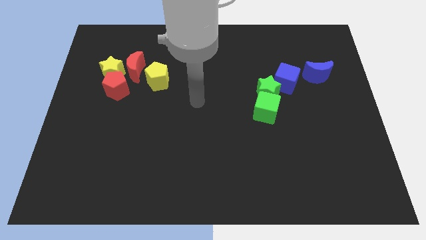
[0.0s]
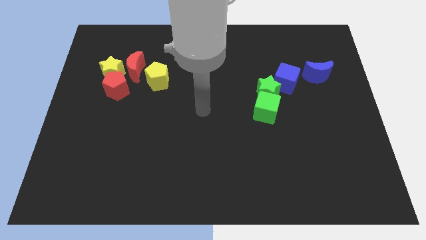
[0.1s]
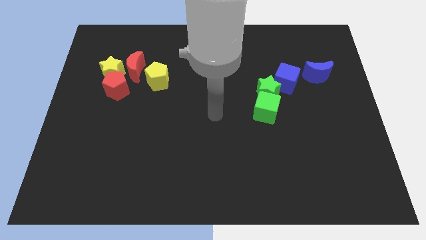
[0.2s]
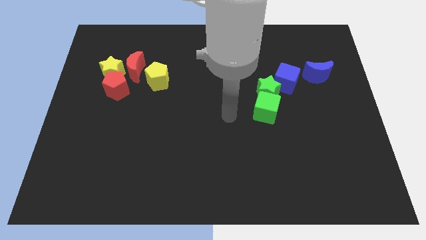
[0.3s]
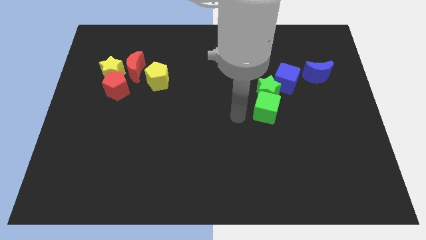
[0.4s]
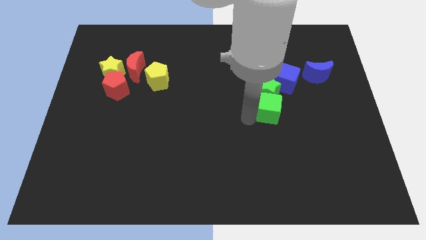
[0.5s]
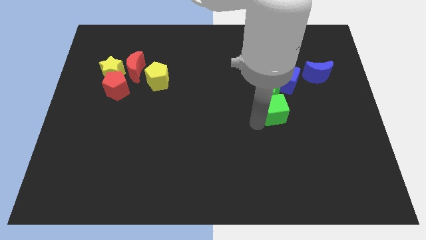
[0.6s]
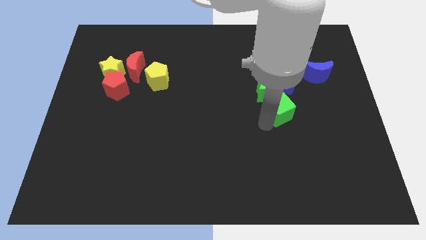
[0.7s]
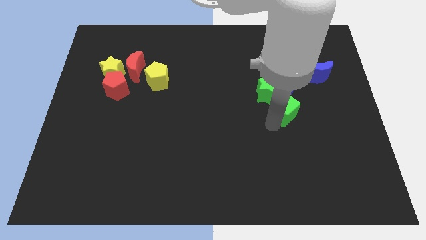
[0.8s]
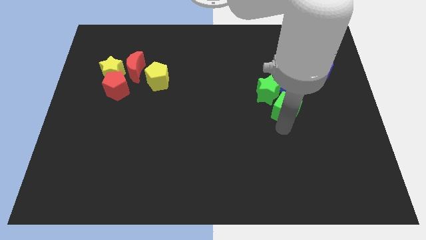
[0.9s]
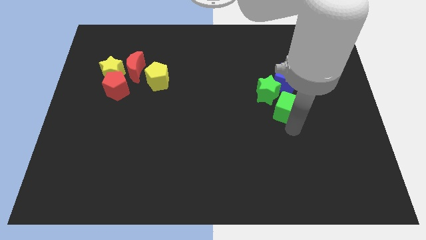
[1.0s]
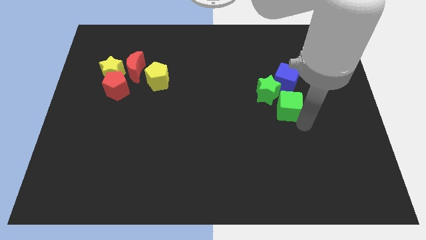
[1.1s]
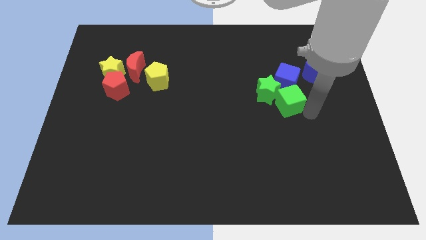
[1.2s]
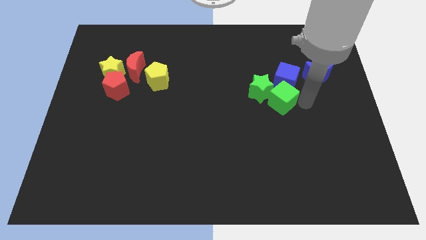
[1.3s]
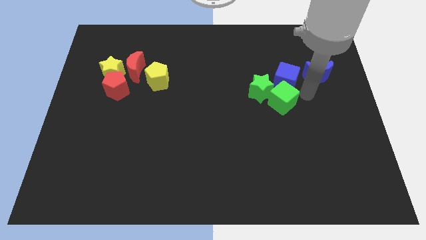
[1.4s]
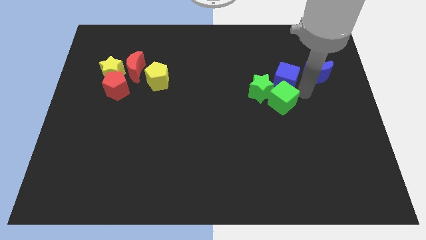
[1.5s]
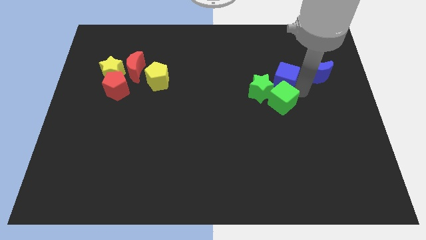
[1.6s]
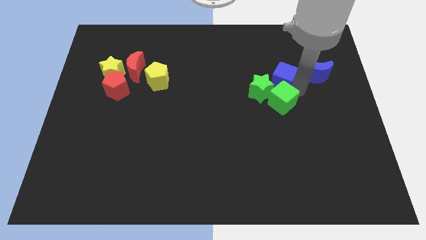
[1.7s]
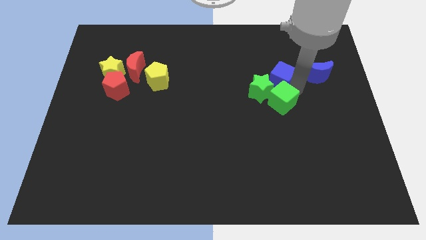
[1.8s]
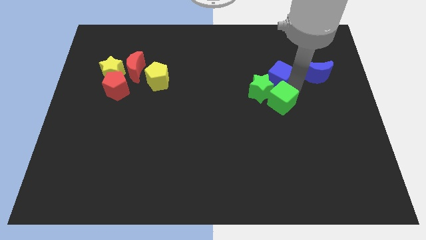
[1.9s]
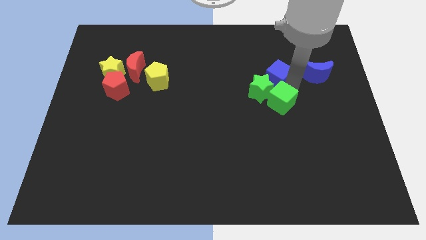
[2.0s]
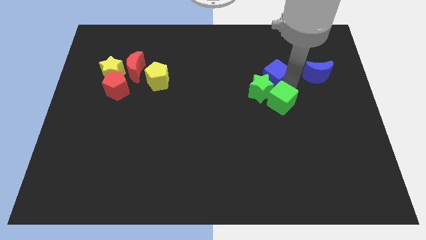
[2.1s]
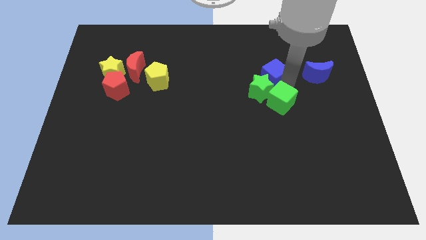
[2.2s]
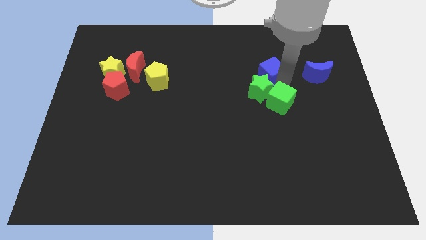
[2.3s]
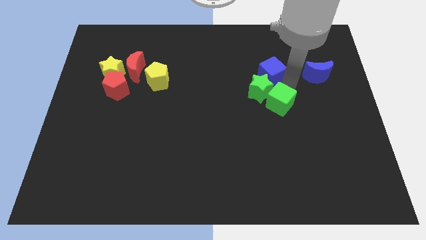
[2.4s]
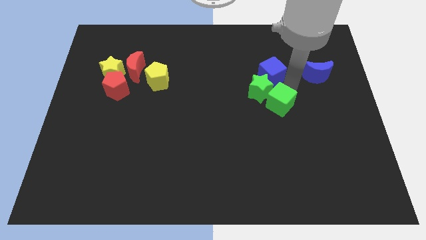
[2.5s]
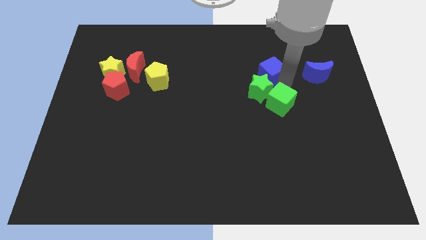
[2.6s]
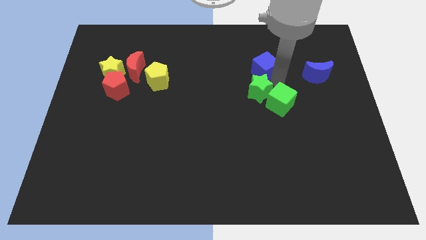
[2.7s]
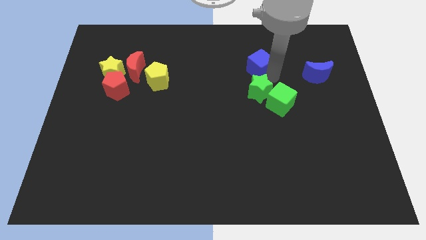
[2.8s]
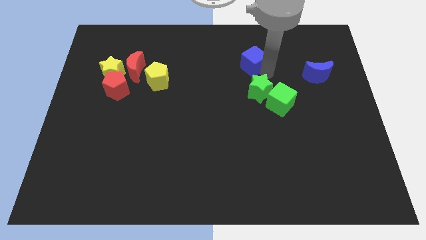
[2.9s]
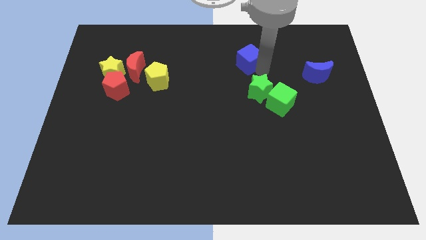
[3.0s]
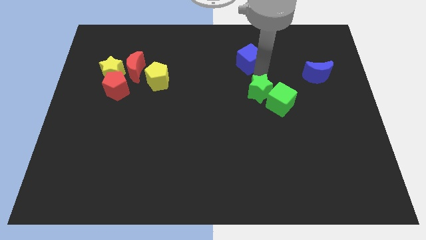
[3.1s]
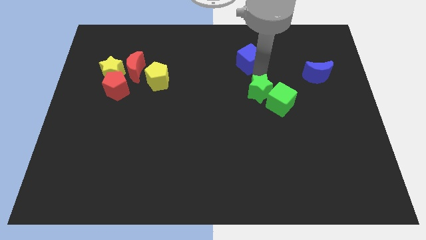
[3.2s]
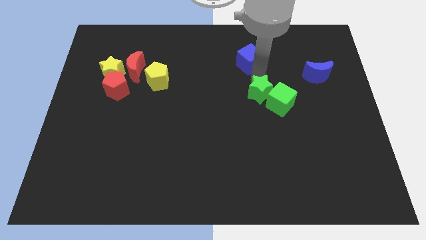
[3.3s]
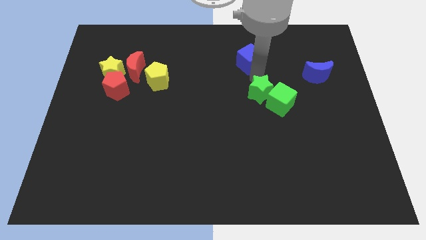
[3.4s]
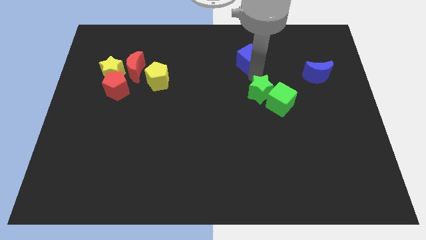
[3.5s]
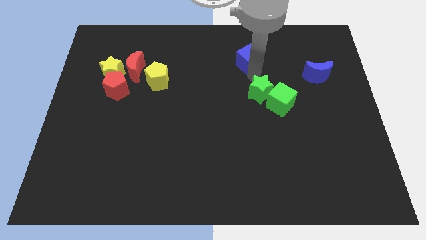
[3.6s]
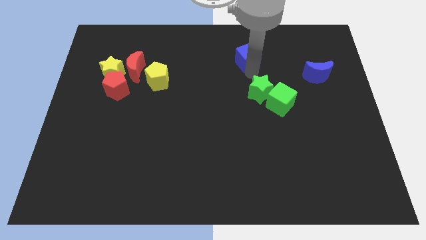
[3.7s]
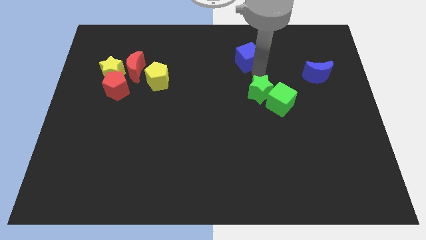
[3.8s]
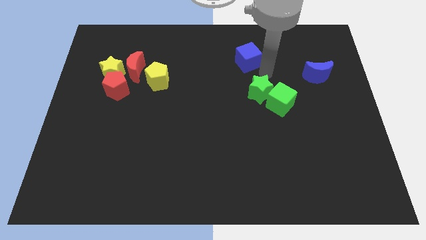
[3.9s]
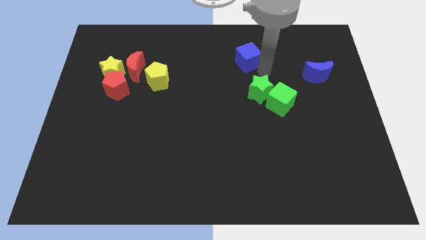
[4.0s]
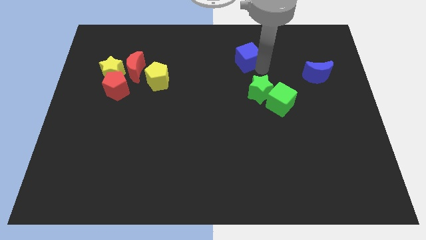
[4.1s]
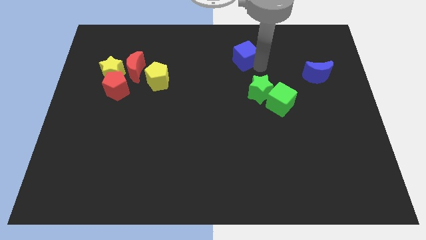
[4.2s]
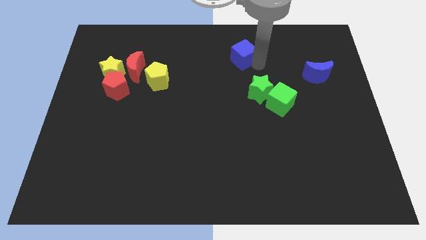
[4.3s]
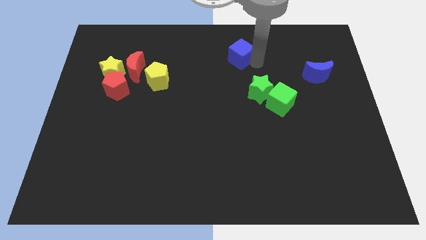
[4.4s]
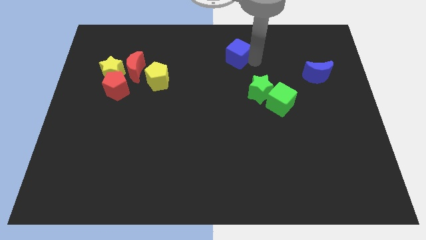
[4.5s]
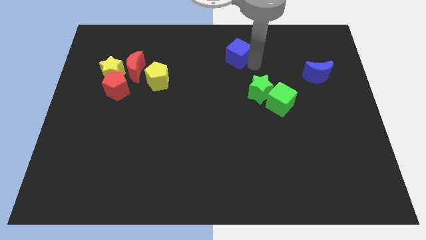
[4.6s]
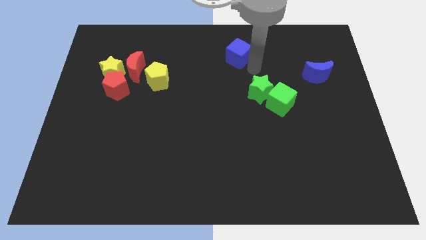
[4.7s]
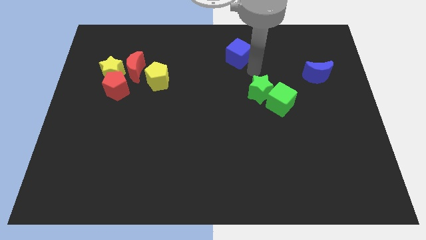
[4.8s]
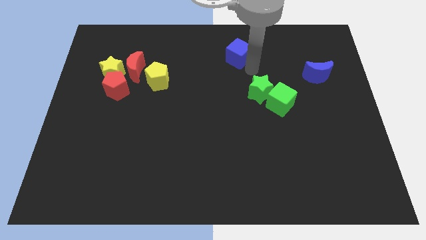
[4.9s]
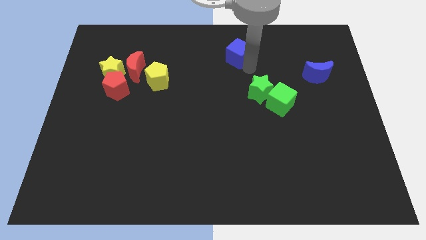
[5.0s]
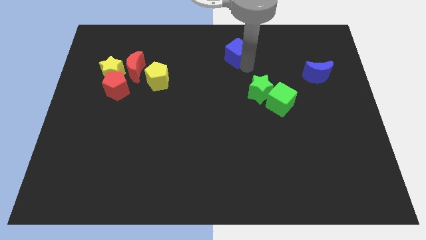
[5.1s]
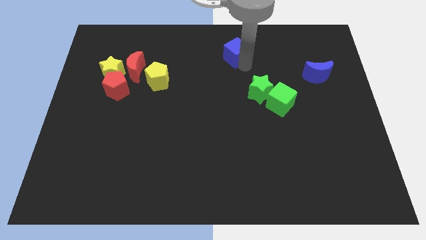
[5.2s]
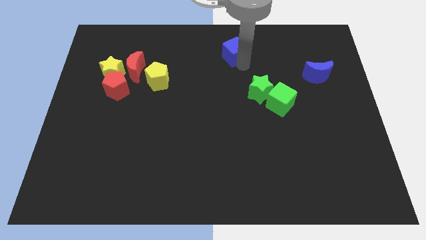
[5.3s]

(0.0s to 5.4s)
move the blue cube to the top side

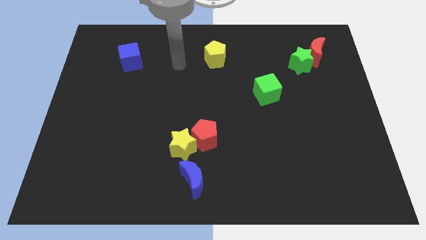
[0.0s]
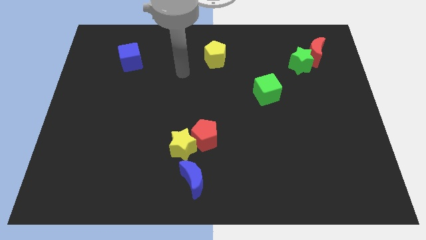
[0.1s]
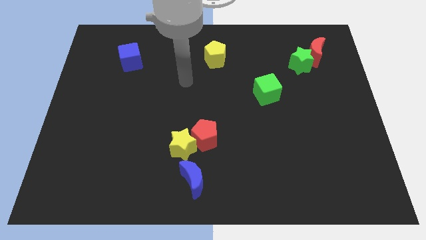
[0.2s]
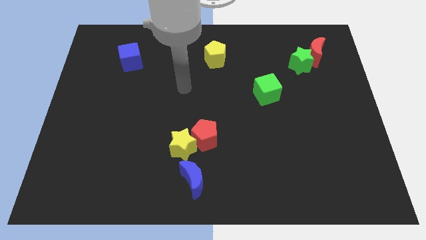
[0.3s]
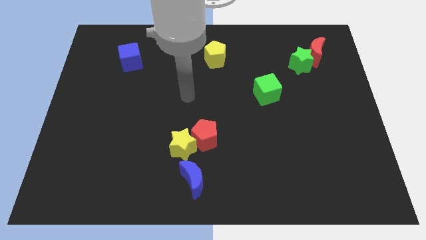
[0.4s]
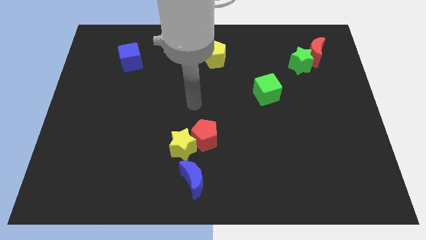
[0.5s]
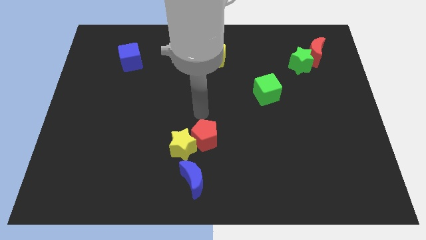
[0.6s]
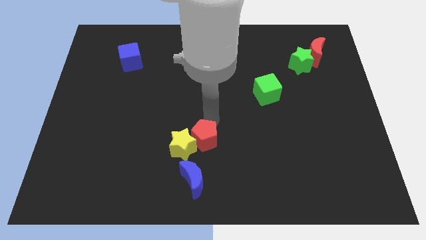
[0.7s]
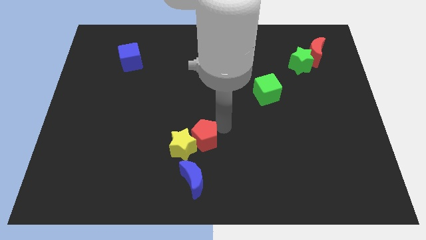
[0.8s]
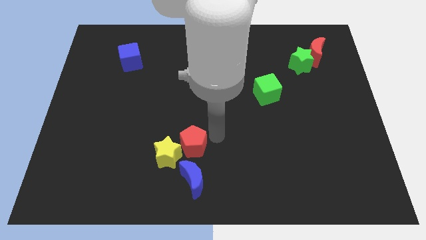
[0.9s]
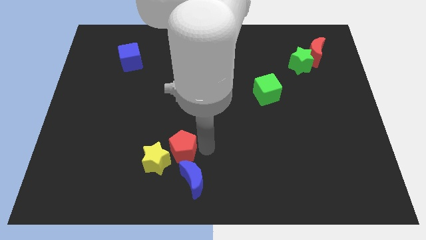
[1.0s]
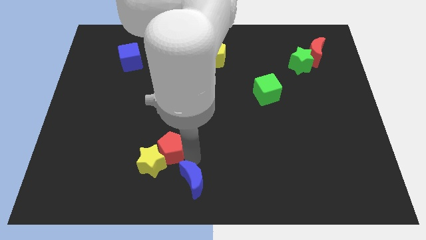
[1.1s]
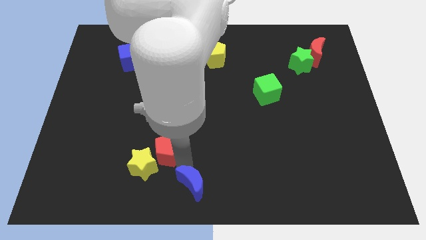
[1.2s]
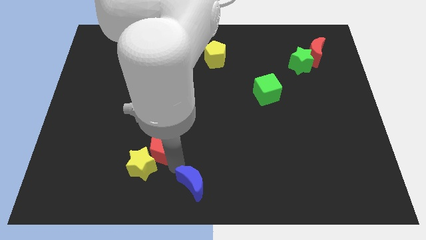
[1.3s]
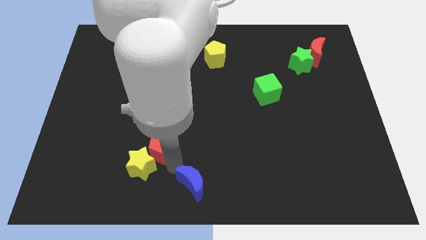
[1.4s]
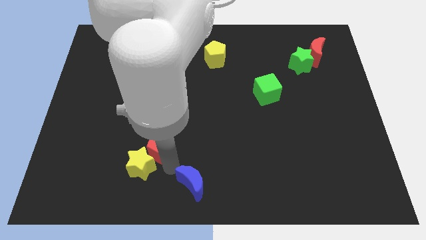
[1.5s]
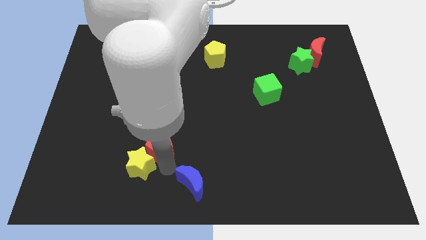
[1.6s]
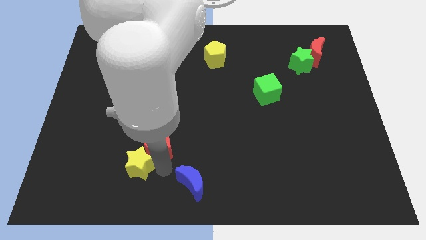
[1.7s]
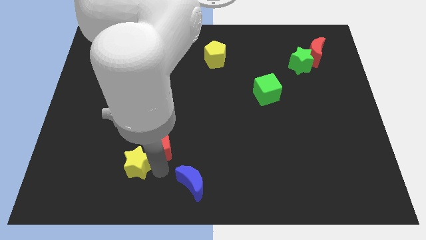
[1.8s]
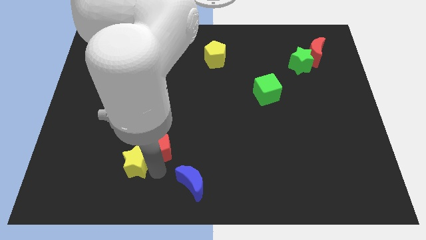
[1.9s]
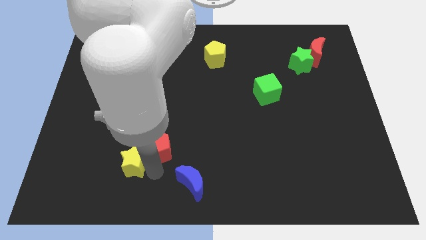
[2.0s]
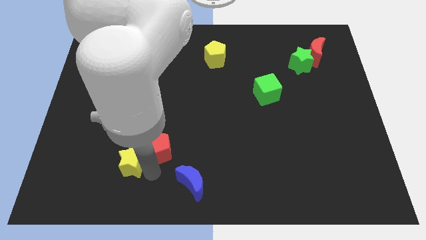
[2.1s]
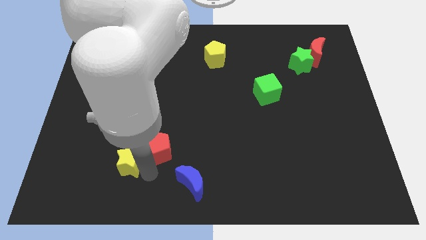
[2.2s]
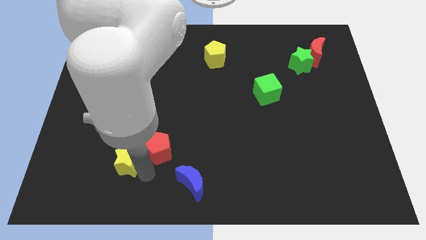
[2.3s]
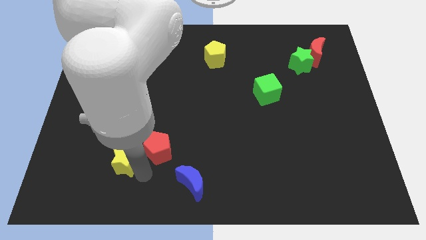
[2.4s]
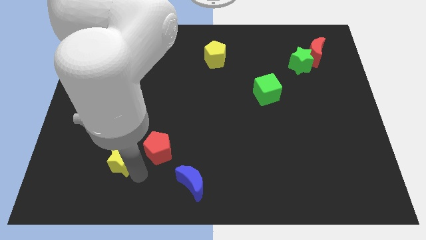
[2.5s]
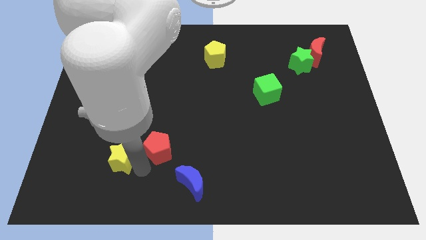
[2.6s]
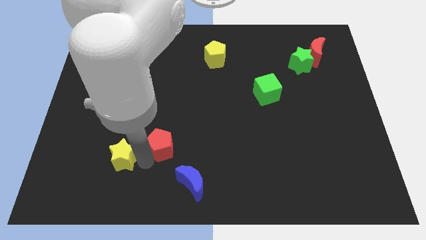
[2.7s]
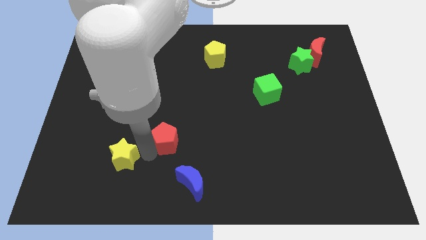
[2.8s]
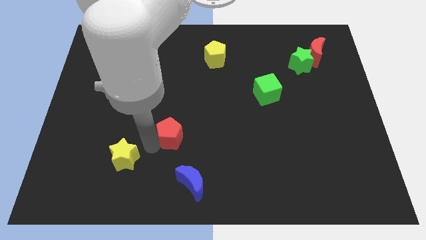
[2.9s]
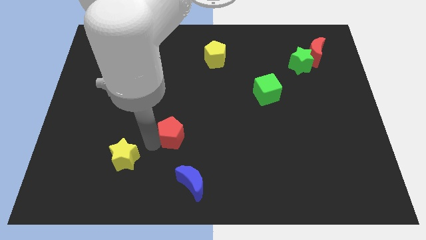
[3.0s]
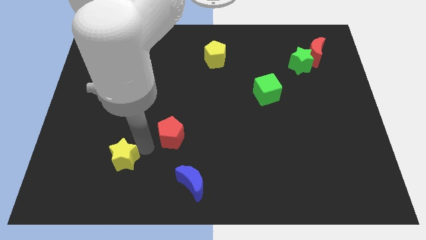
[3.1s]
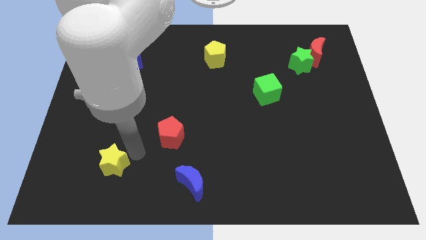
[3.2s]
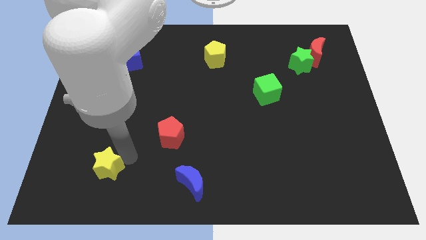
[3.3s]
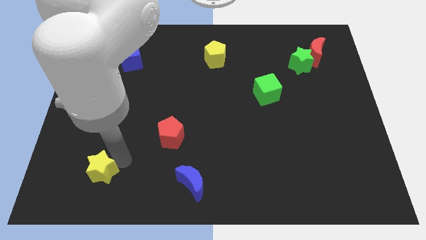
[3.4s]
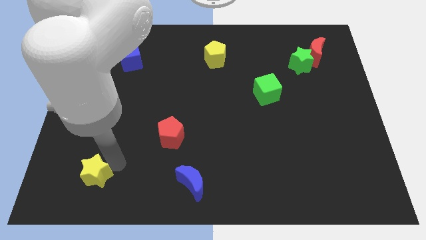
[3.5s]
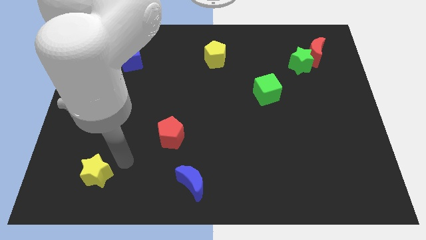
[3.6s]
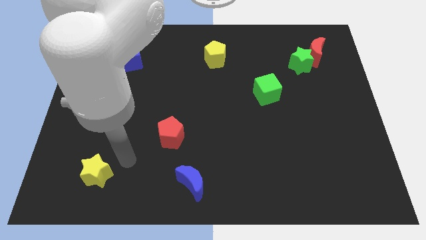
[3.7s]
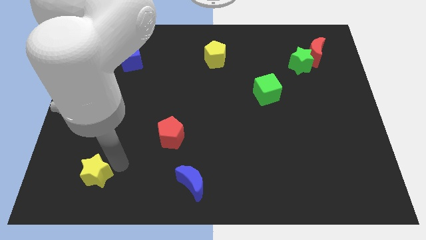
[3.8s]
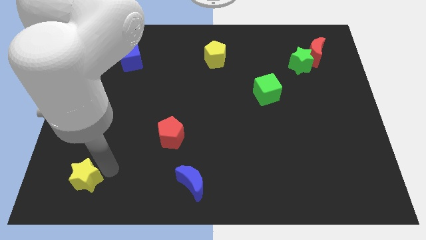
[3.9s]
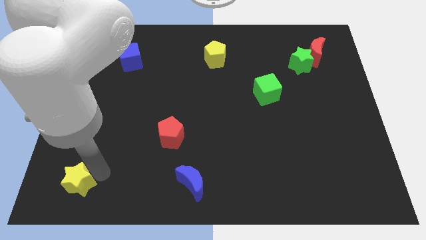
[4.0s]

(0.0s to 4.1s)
slide the yellow star to the bottom left
